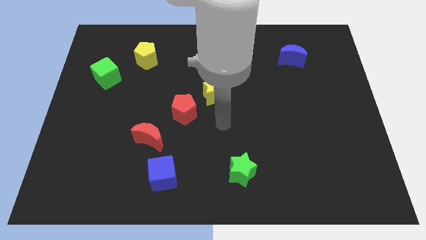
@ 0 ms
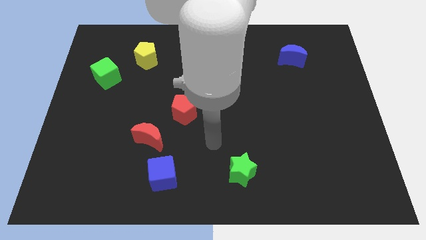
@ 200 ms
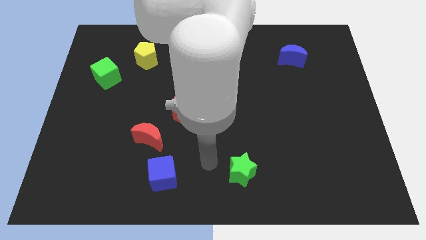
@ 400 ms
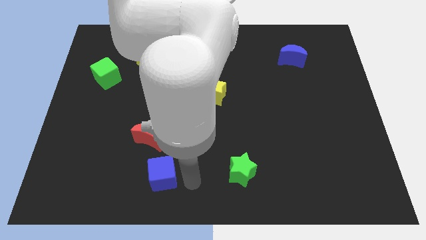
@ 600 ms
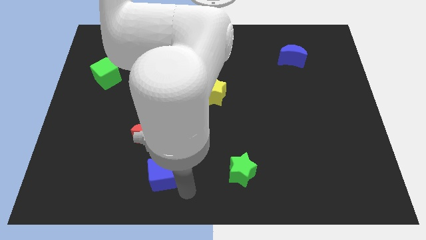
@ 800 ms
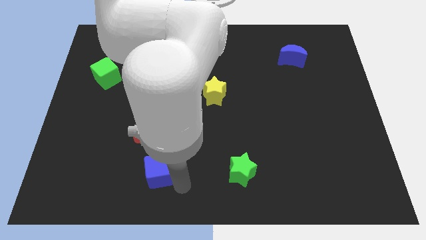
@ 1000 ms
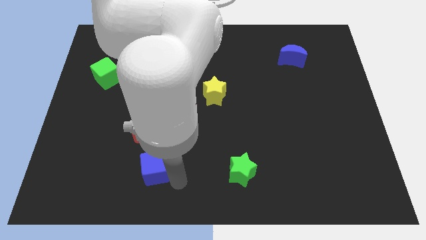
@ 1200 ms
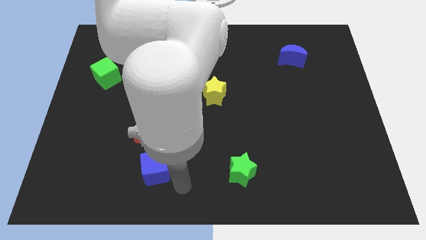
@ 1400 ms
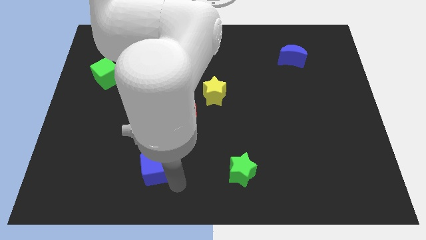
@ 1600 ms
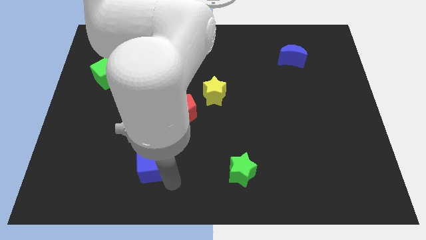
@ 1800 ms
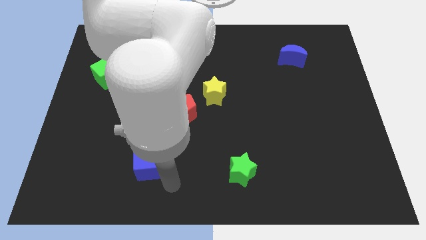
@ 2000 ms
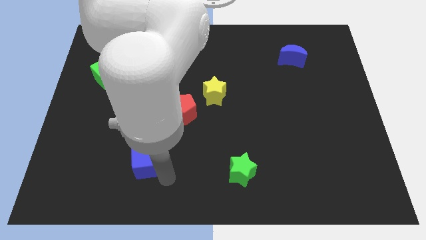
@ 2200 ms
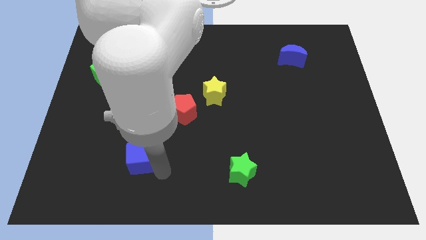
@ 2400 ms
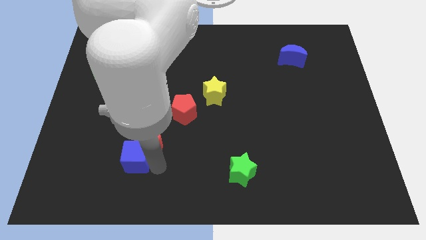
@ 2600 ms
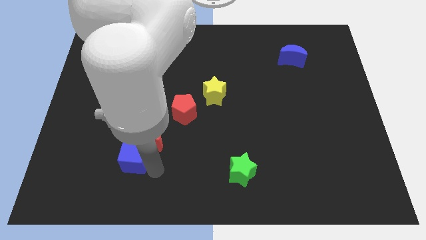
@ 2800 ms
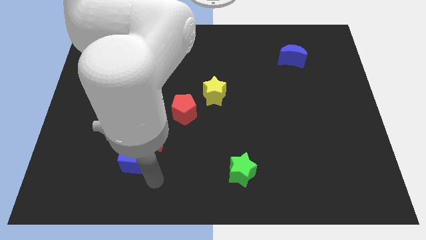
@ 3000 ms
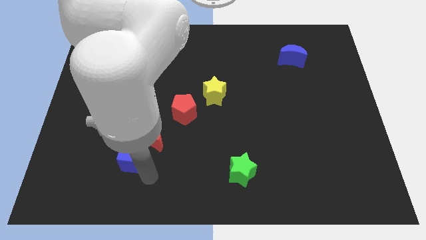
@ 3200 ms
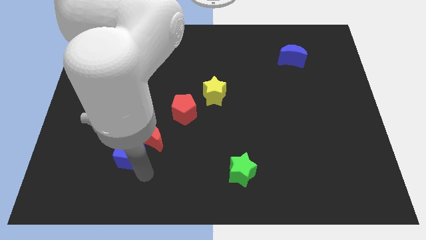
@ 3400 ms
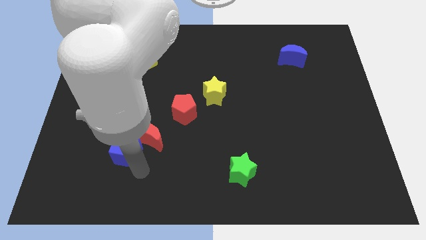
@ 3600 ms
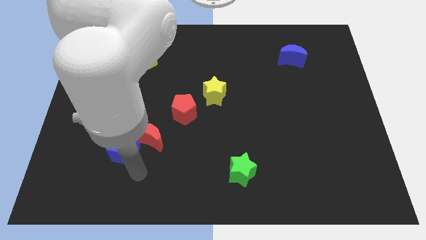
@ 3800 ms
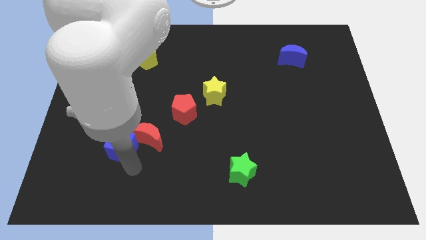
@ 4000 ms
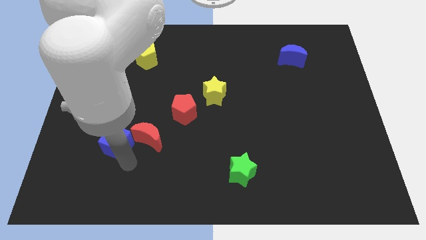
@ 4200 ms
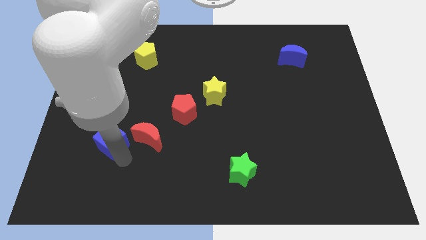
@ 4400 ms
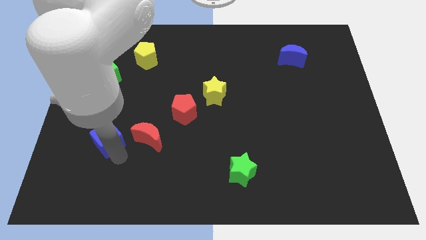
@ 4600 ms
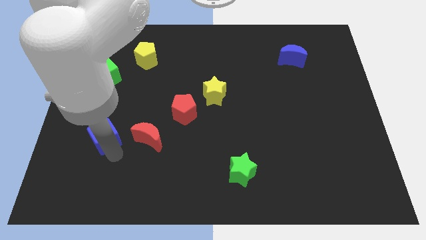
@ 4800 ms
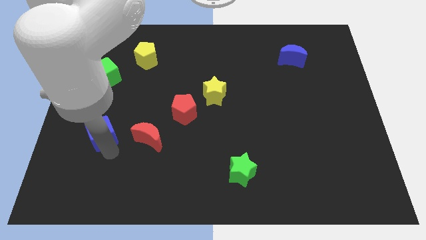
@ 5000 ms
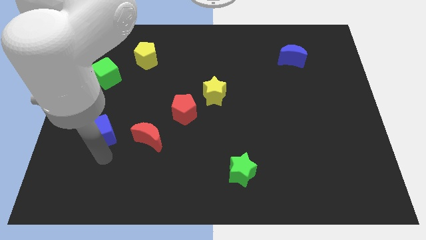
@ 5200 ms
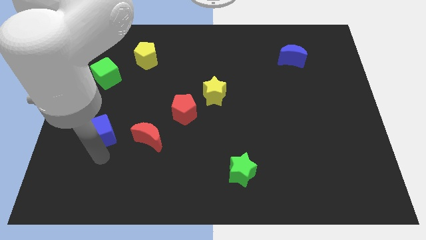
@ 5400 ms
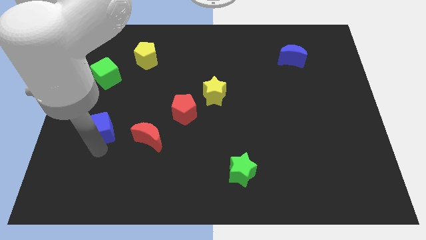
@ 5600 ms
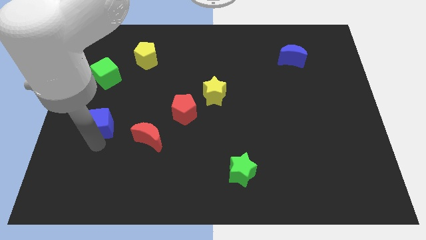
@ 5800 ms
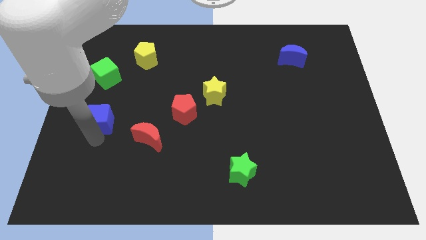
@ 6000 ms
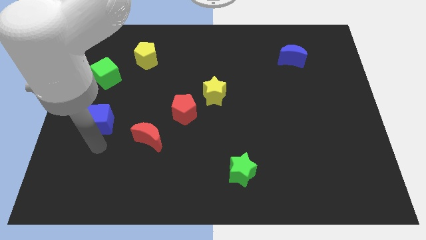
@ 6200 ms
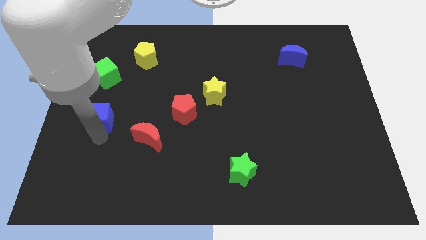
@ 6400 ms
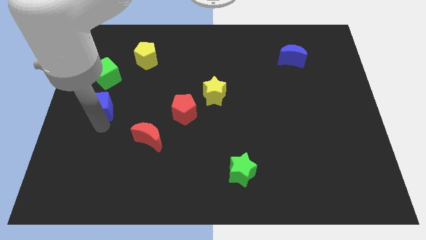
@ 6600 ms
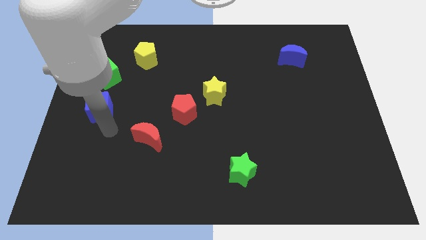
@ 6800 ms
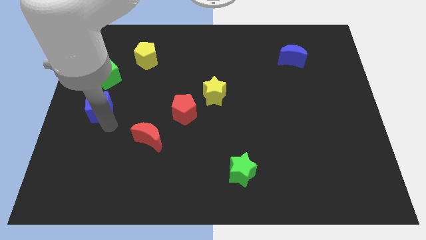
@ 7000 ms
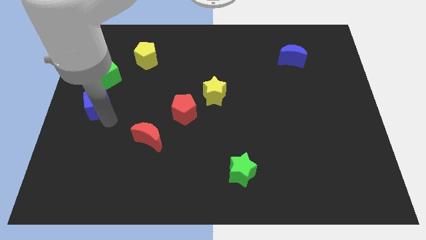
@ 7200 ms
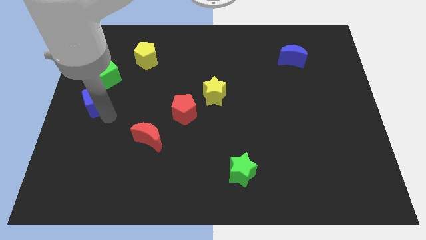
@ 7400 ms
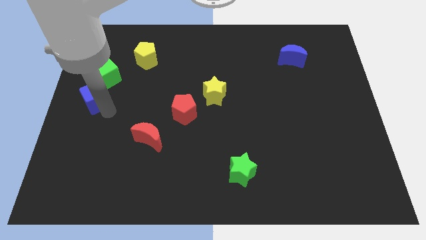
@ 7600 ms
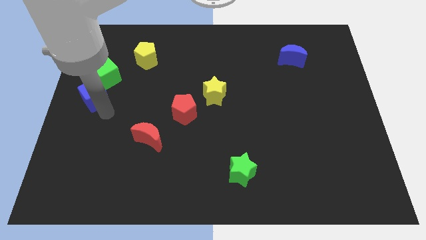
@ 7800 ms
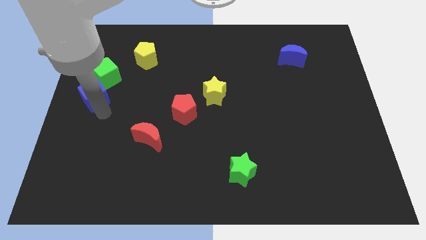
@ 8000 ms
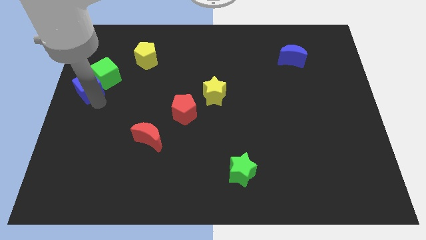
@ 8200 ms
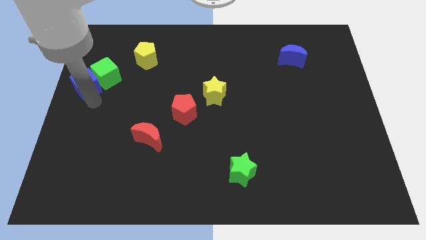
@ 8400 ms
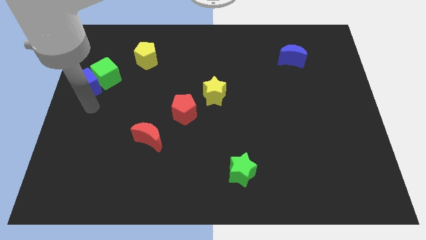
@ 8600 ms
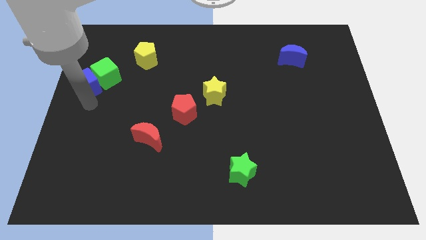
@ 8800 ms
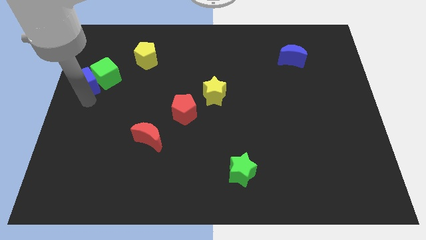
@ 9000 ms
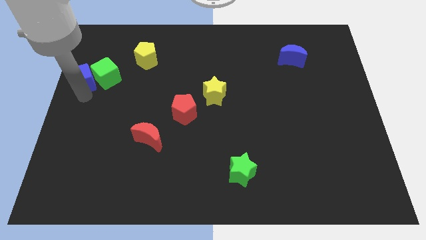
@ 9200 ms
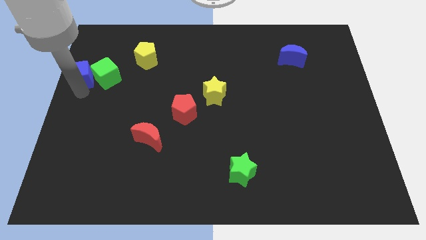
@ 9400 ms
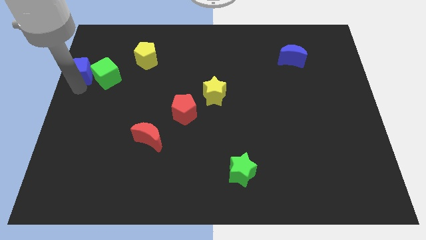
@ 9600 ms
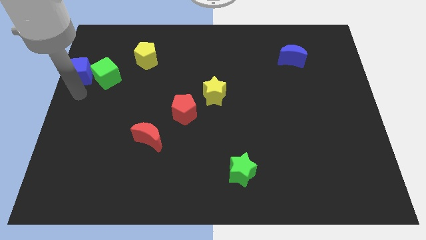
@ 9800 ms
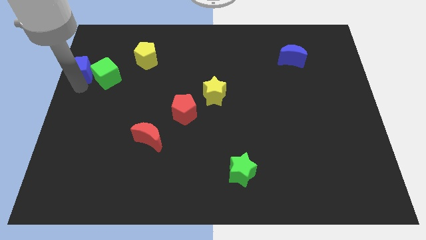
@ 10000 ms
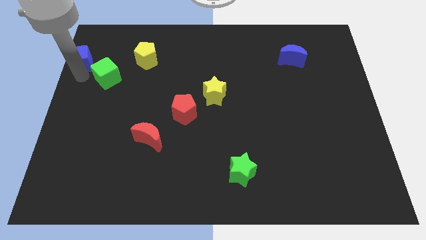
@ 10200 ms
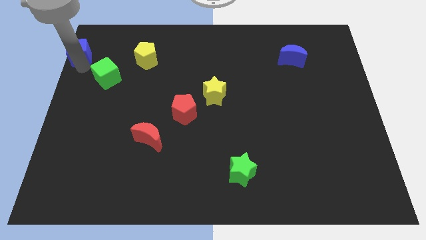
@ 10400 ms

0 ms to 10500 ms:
put the blue cube to the top left of the board

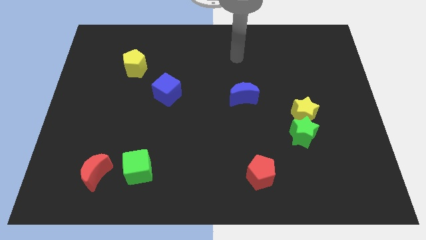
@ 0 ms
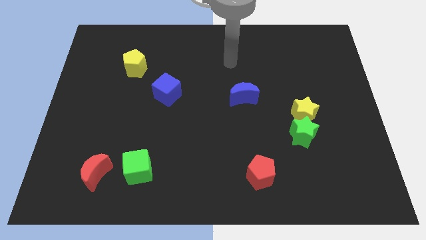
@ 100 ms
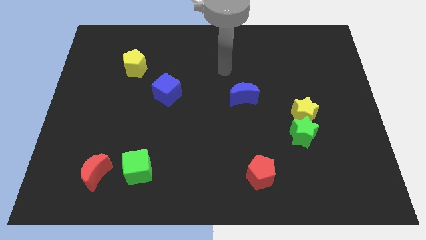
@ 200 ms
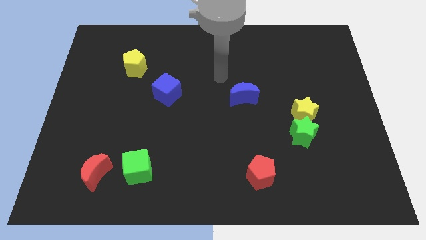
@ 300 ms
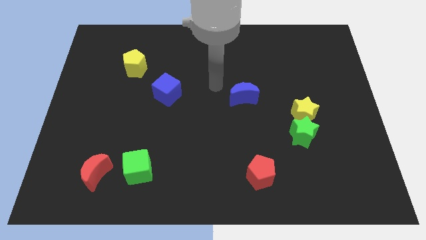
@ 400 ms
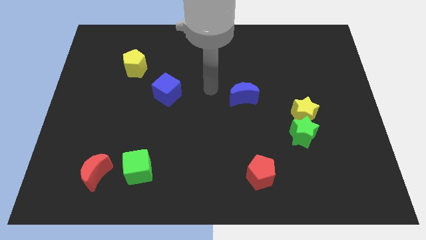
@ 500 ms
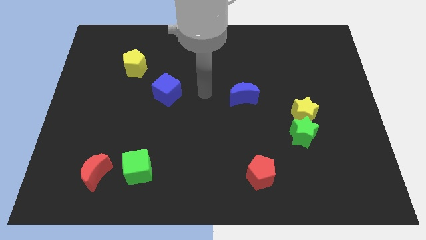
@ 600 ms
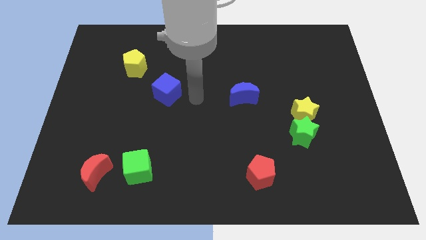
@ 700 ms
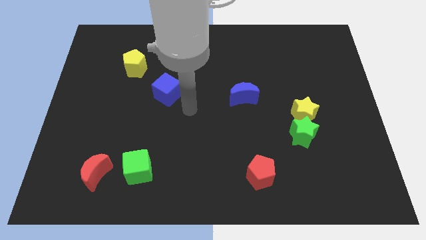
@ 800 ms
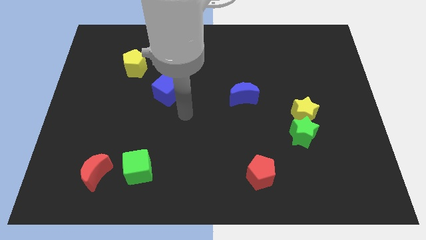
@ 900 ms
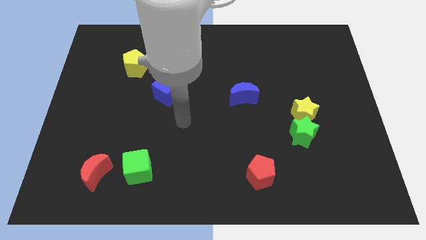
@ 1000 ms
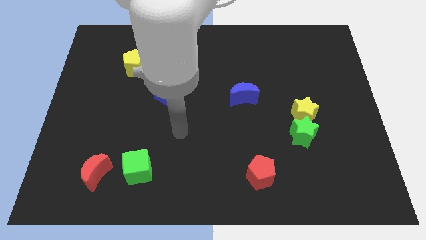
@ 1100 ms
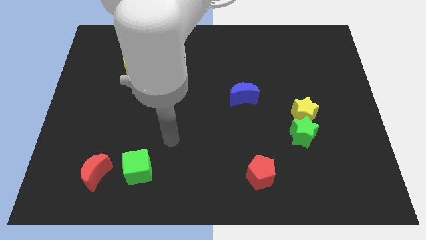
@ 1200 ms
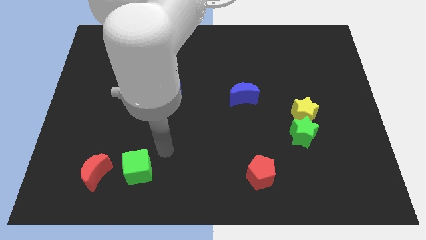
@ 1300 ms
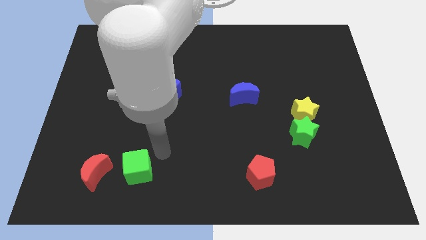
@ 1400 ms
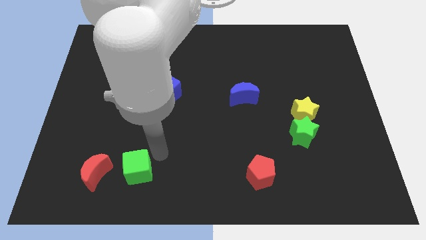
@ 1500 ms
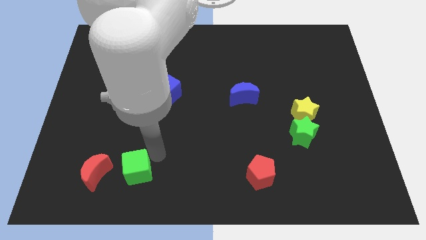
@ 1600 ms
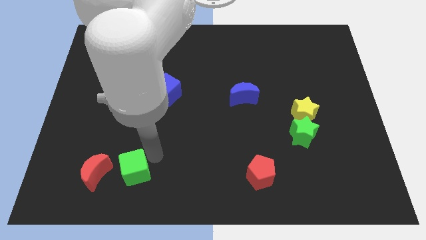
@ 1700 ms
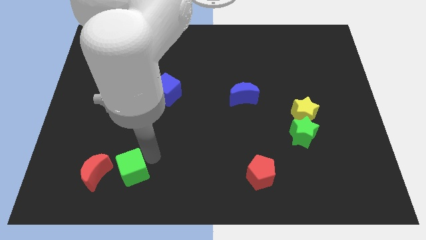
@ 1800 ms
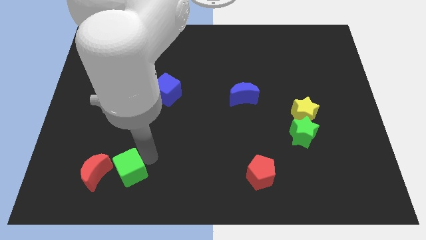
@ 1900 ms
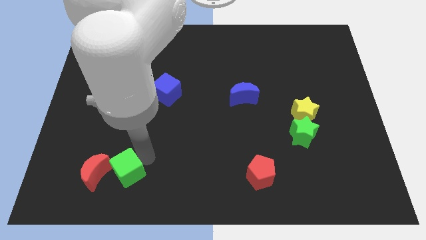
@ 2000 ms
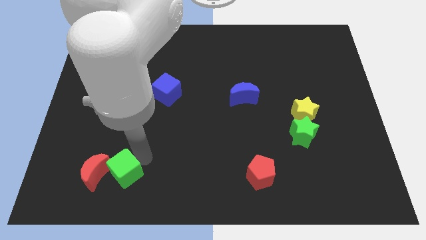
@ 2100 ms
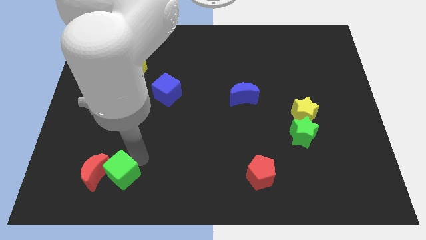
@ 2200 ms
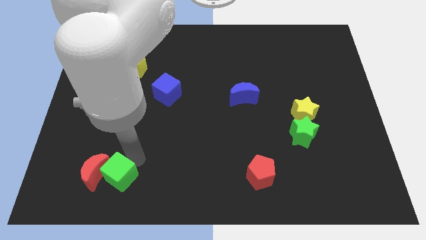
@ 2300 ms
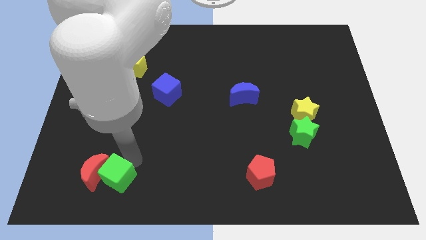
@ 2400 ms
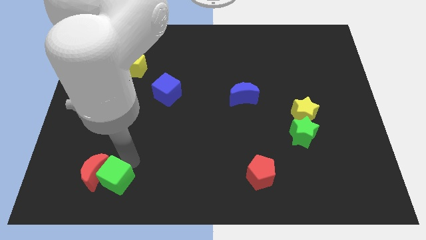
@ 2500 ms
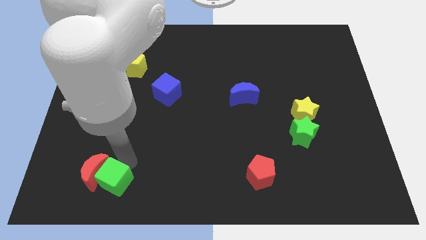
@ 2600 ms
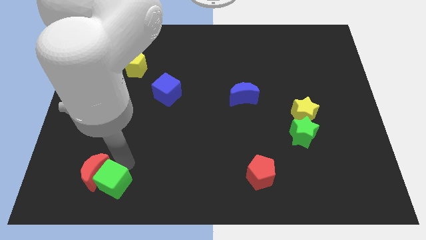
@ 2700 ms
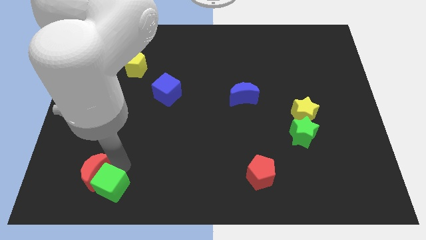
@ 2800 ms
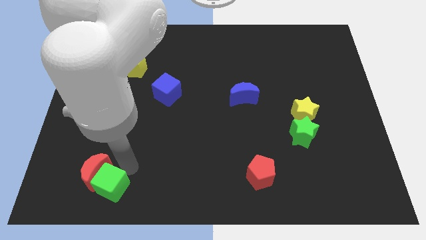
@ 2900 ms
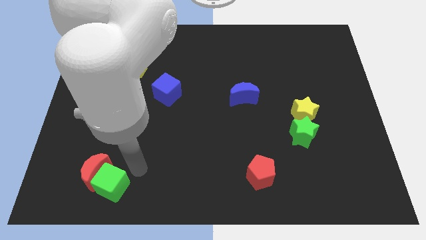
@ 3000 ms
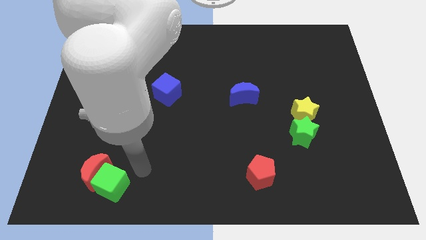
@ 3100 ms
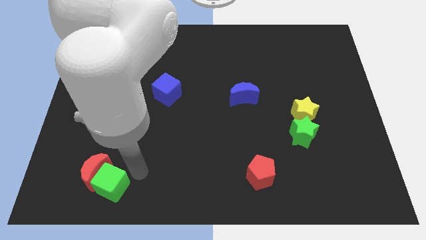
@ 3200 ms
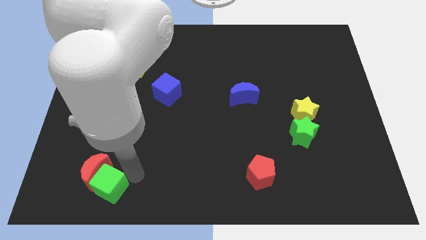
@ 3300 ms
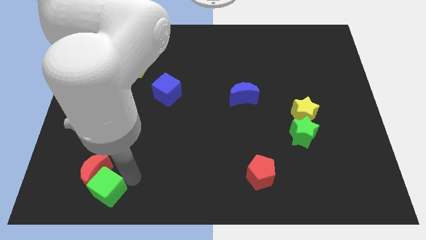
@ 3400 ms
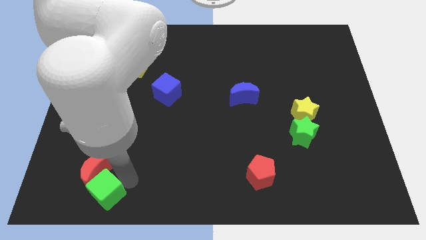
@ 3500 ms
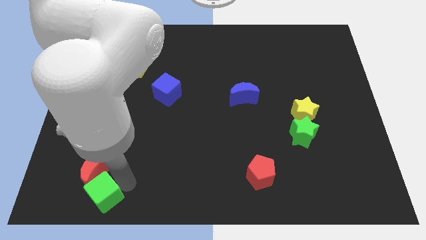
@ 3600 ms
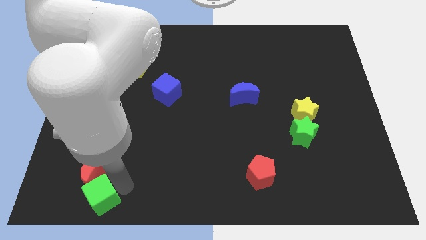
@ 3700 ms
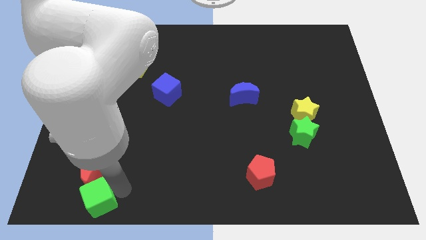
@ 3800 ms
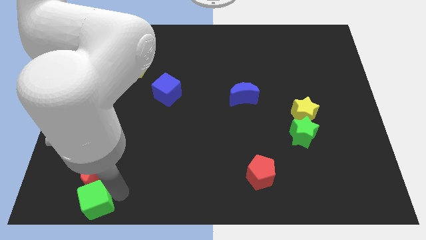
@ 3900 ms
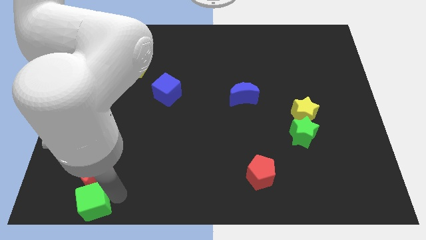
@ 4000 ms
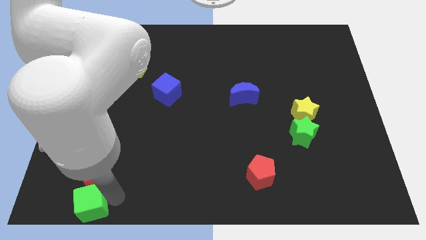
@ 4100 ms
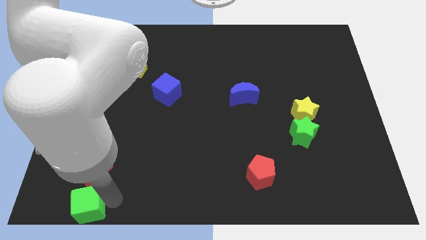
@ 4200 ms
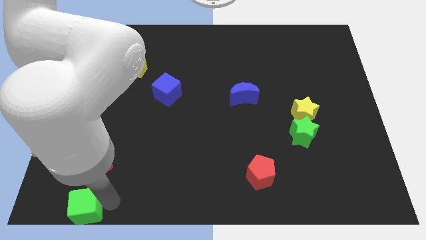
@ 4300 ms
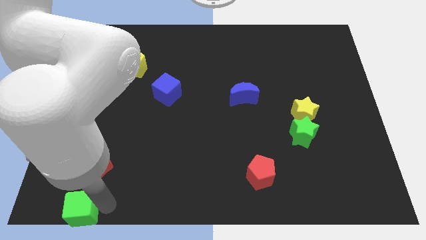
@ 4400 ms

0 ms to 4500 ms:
move the green cube to the bottom left of the board
